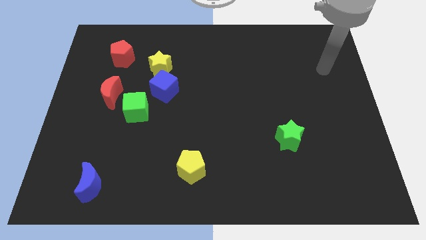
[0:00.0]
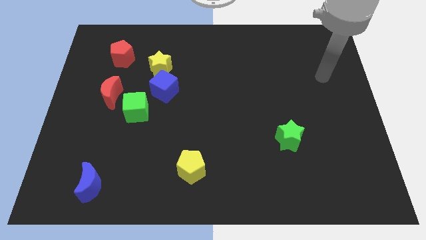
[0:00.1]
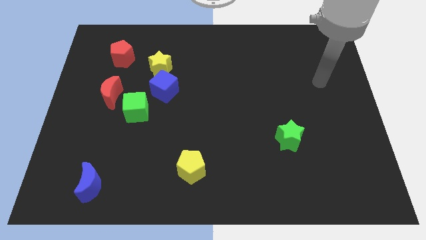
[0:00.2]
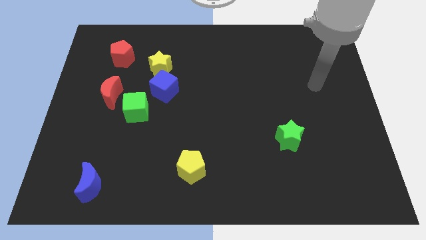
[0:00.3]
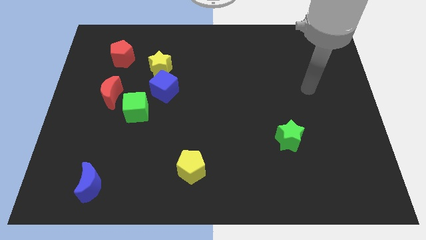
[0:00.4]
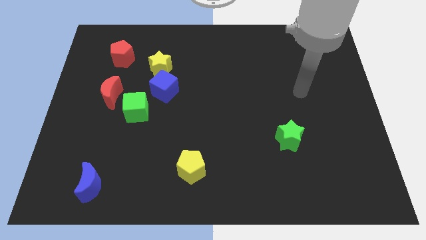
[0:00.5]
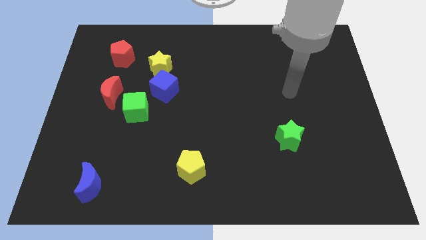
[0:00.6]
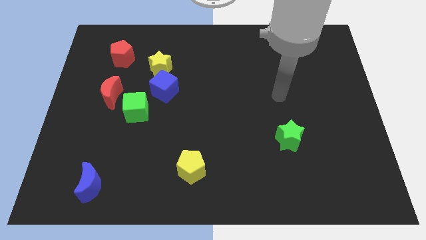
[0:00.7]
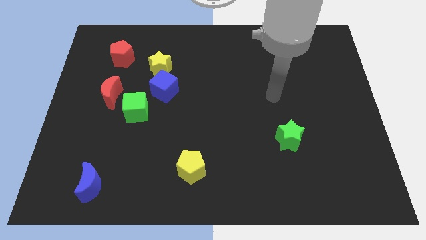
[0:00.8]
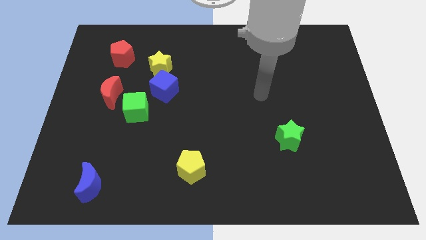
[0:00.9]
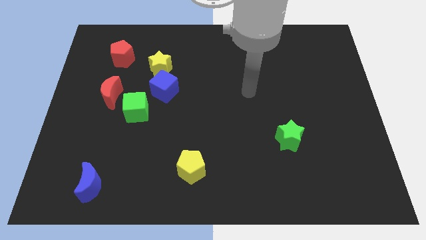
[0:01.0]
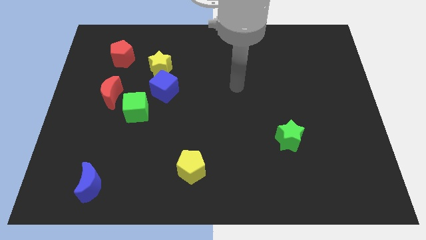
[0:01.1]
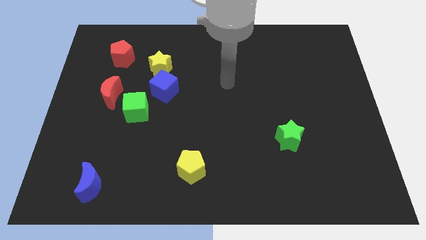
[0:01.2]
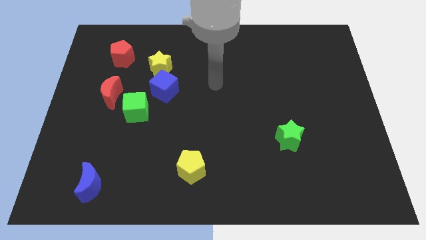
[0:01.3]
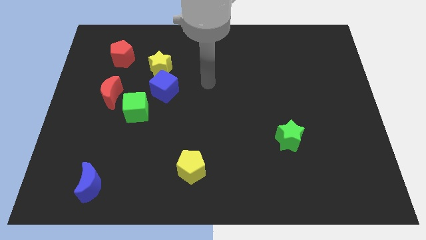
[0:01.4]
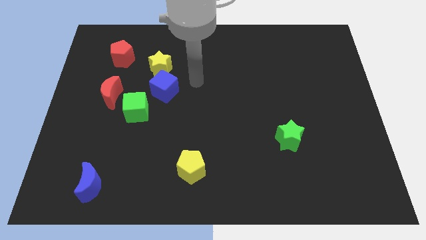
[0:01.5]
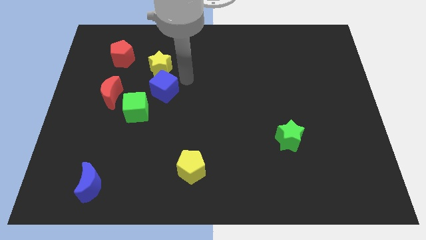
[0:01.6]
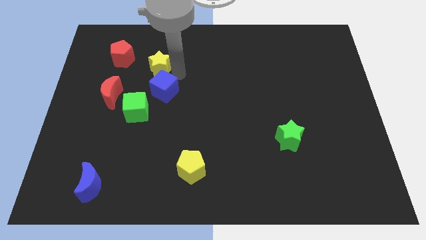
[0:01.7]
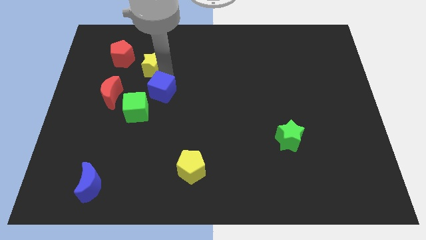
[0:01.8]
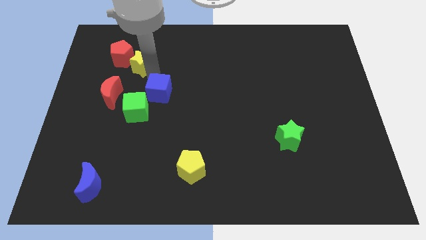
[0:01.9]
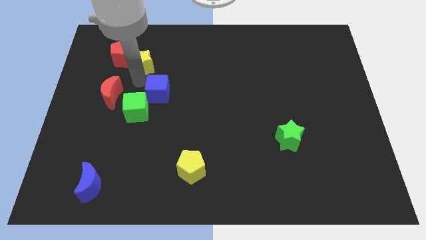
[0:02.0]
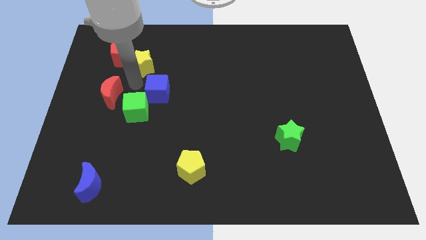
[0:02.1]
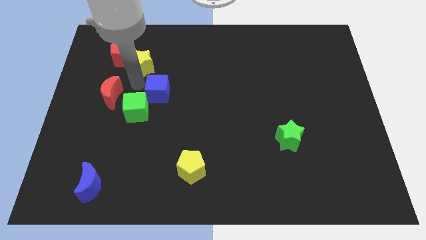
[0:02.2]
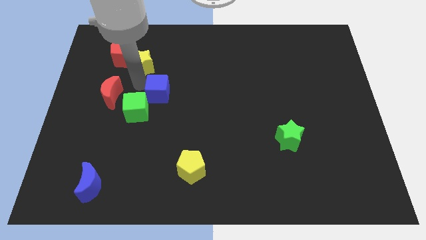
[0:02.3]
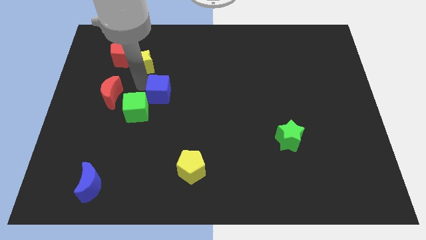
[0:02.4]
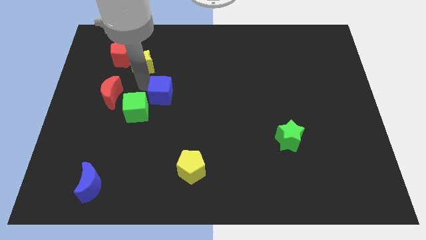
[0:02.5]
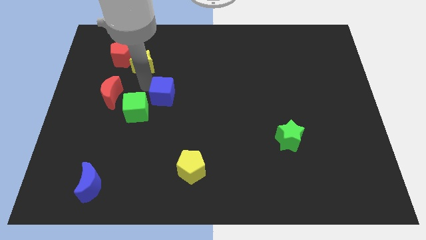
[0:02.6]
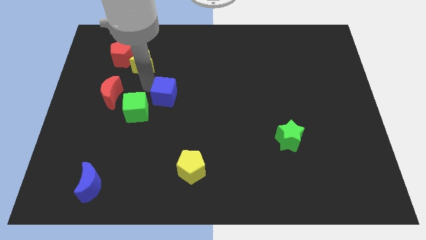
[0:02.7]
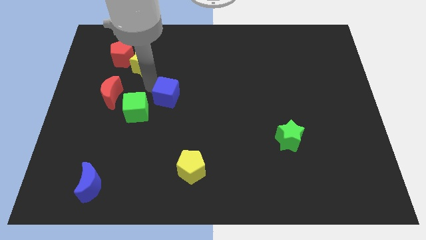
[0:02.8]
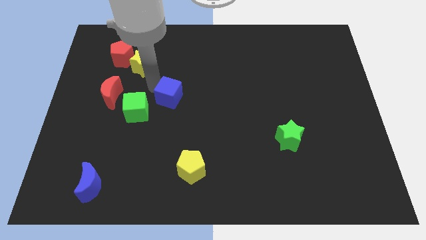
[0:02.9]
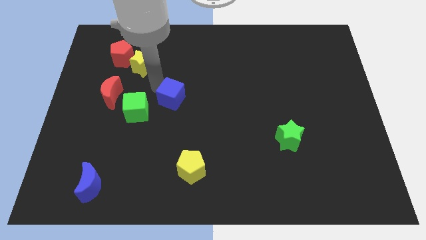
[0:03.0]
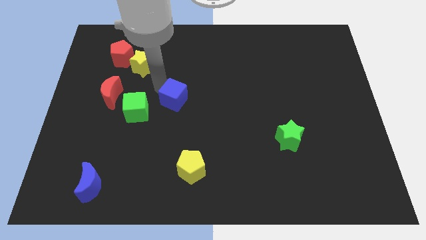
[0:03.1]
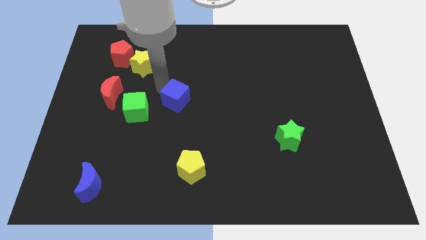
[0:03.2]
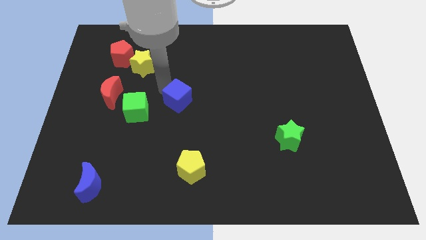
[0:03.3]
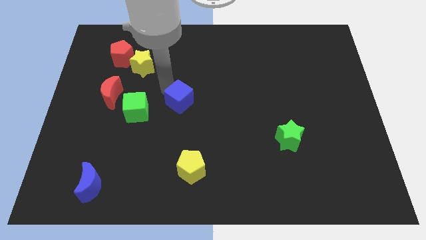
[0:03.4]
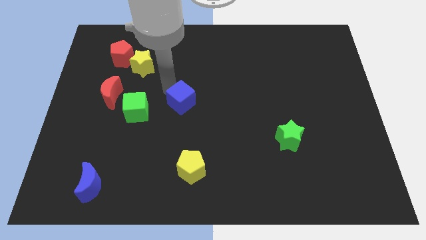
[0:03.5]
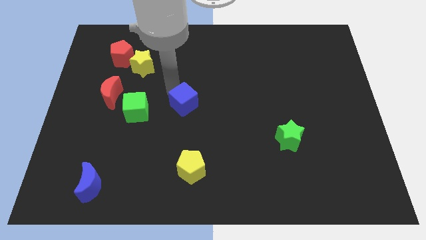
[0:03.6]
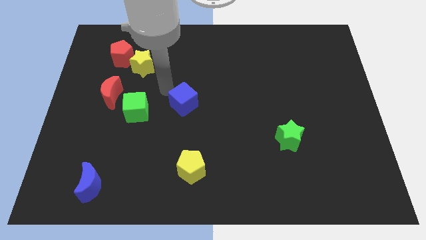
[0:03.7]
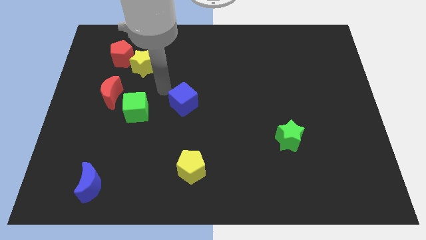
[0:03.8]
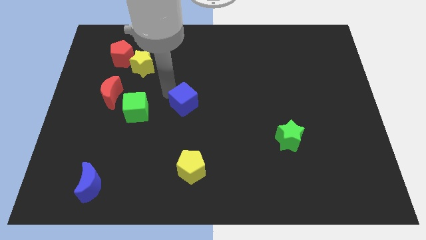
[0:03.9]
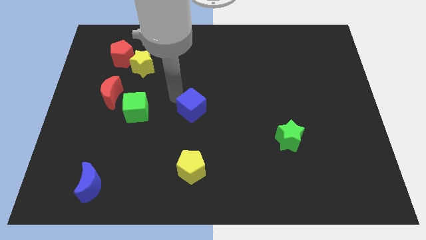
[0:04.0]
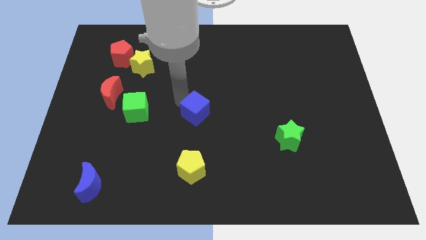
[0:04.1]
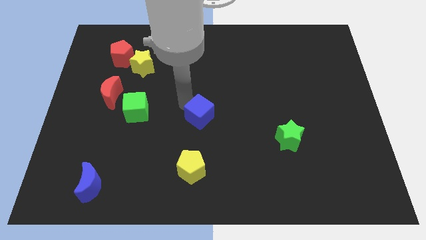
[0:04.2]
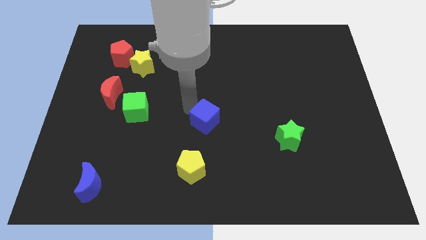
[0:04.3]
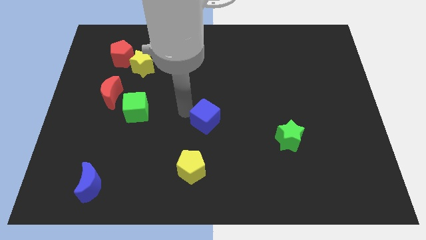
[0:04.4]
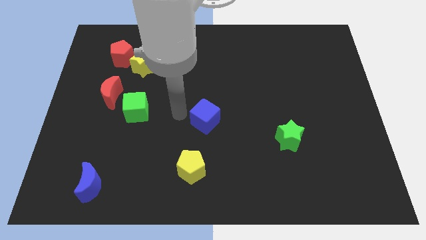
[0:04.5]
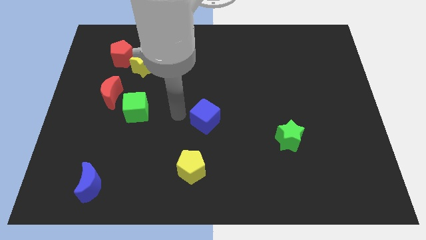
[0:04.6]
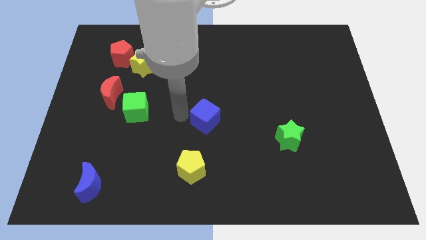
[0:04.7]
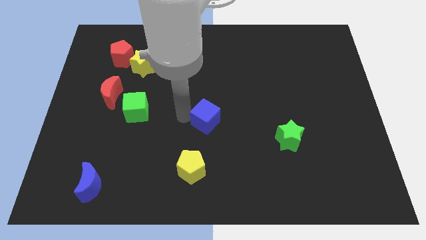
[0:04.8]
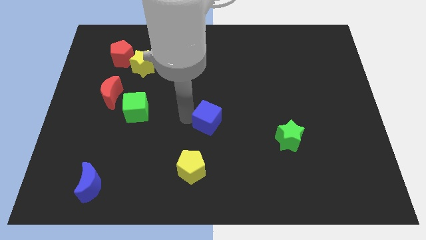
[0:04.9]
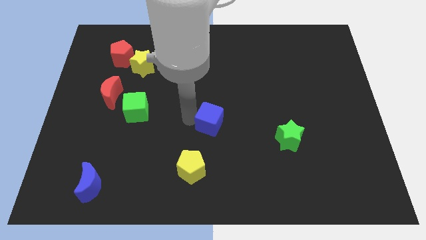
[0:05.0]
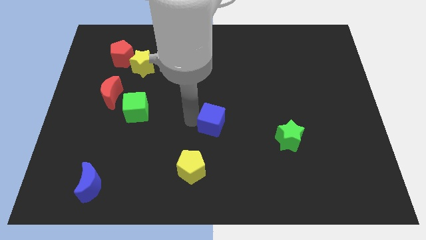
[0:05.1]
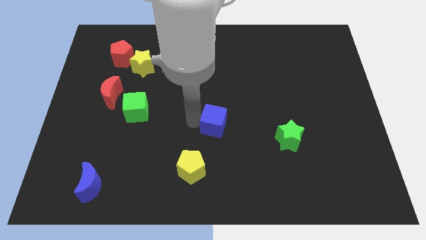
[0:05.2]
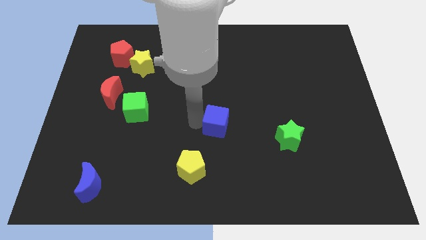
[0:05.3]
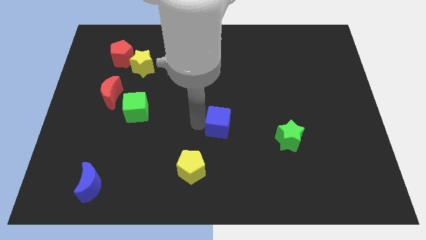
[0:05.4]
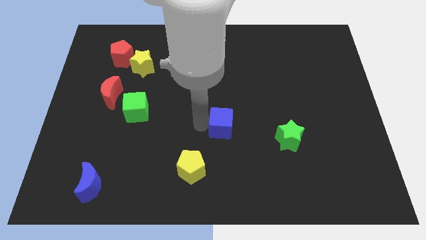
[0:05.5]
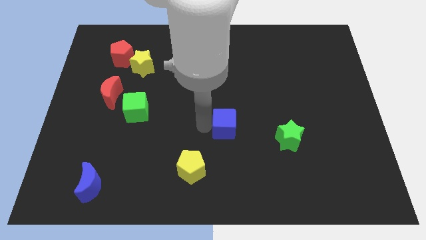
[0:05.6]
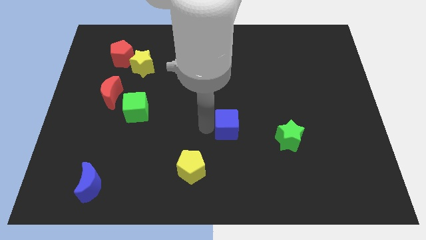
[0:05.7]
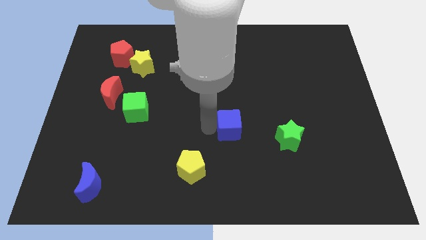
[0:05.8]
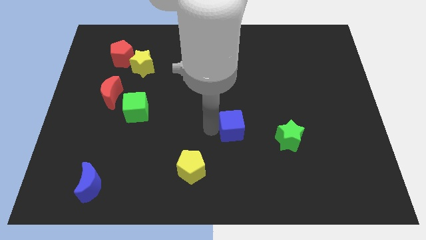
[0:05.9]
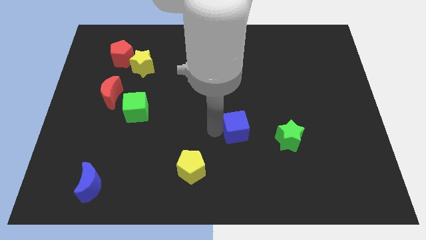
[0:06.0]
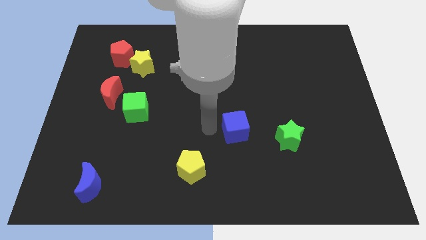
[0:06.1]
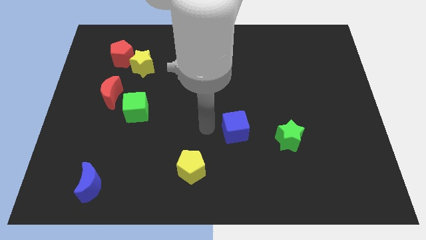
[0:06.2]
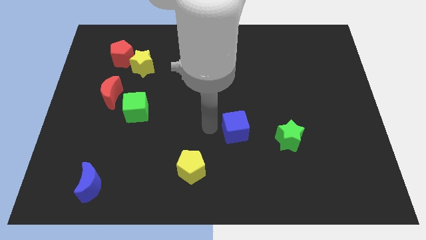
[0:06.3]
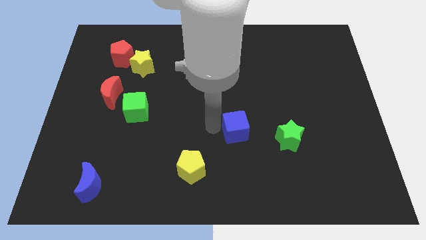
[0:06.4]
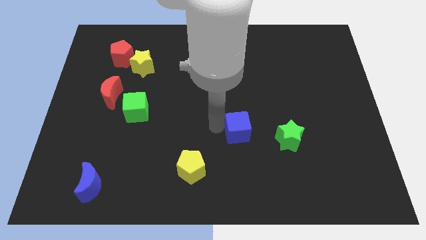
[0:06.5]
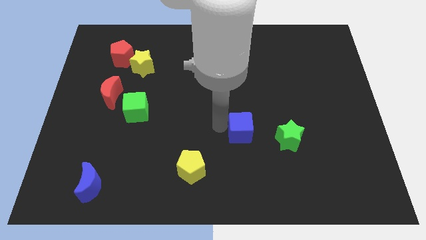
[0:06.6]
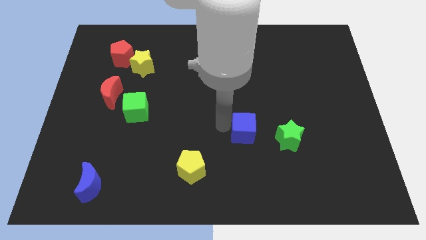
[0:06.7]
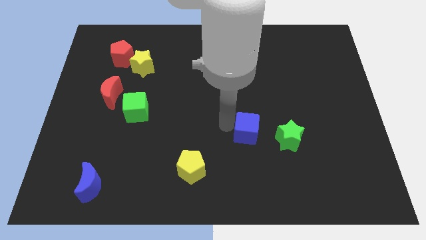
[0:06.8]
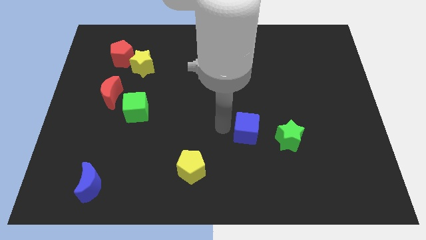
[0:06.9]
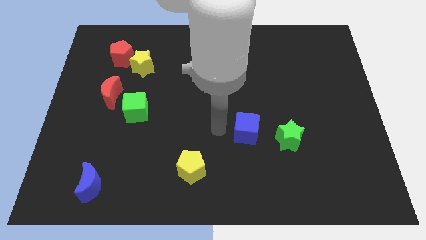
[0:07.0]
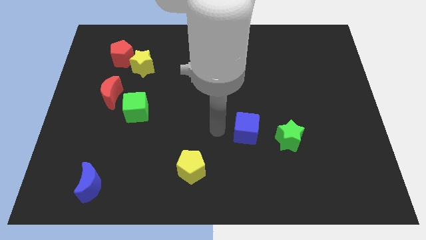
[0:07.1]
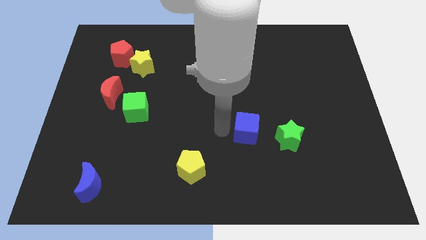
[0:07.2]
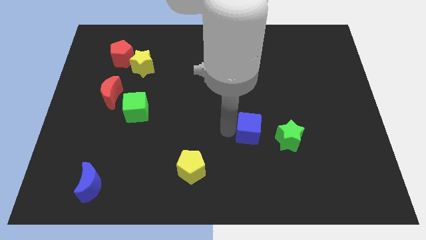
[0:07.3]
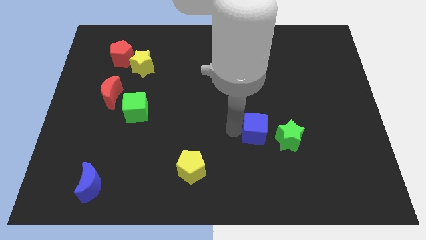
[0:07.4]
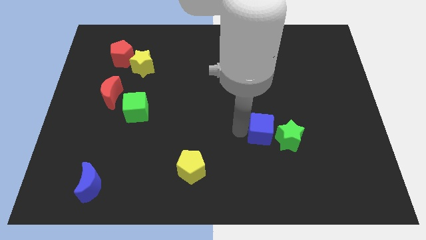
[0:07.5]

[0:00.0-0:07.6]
push the blue cube to the green star
